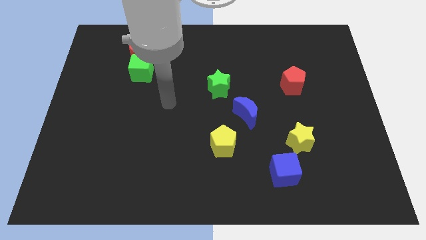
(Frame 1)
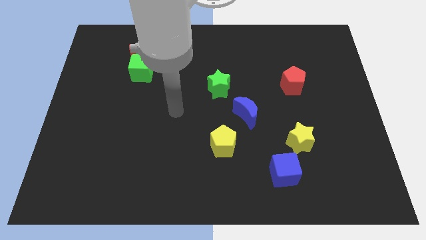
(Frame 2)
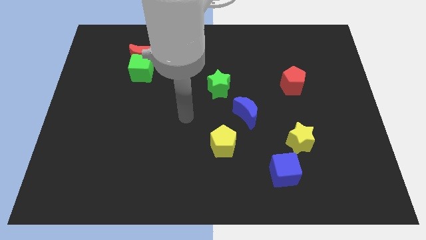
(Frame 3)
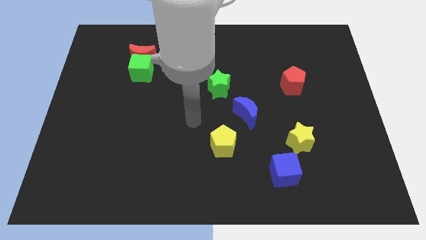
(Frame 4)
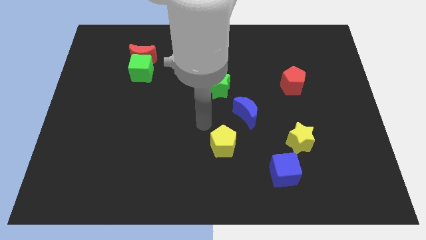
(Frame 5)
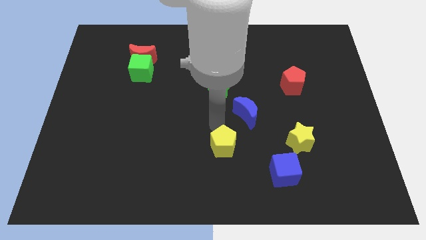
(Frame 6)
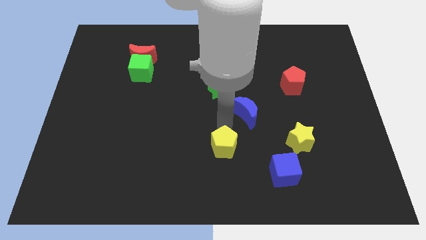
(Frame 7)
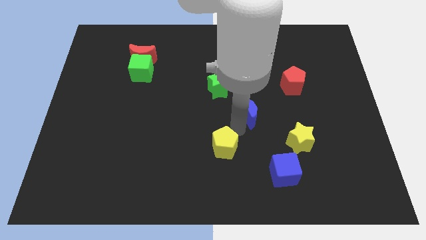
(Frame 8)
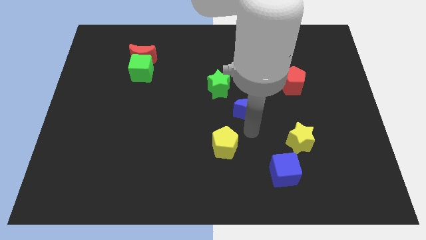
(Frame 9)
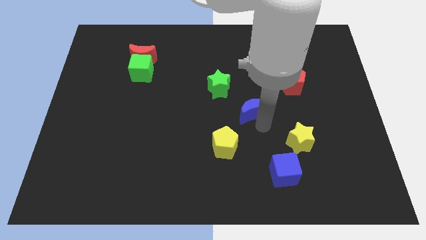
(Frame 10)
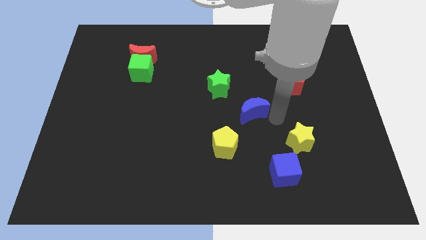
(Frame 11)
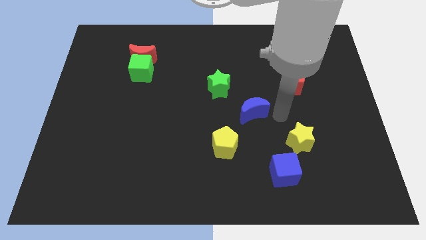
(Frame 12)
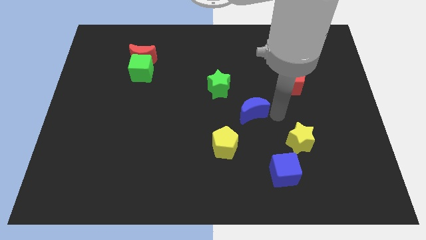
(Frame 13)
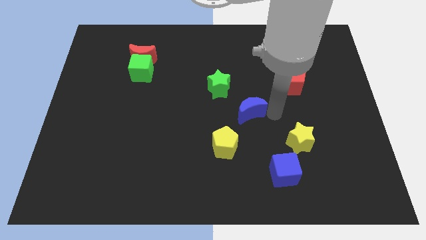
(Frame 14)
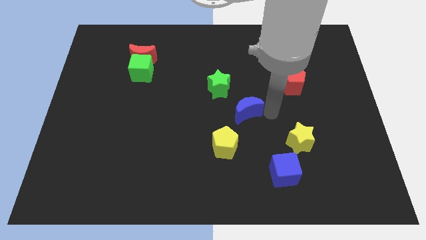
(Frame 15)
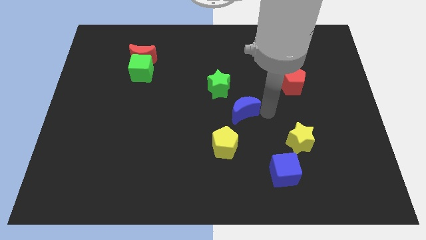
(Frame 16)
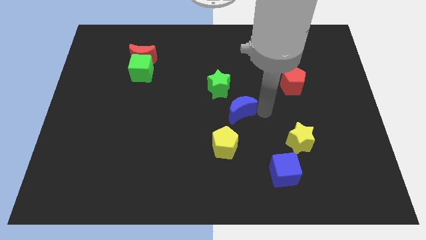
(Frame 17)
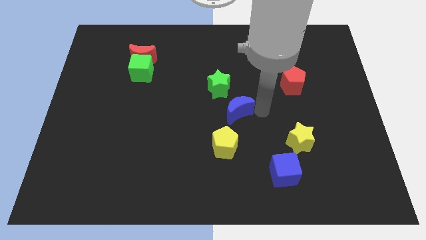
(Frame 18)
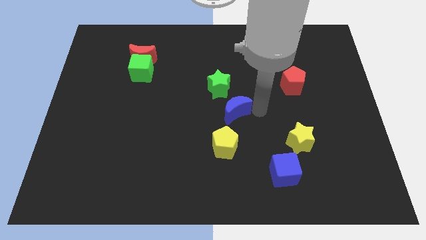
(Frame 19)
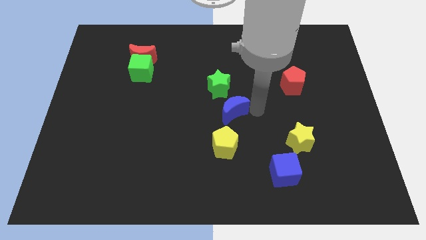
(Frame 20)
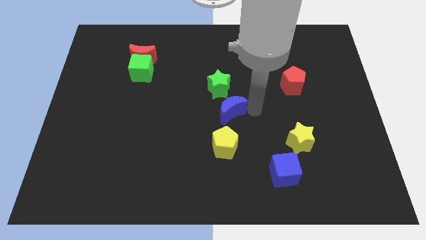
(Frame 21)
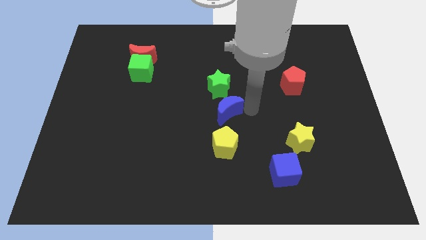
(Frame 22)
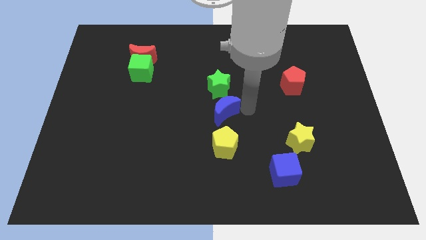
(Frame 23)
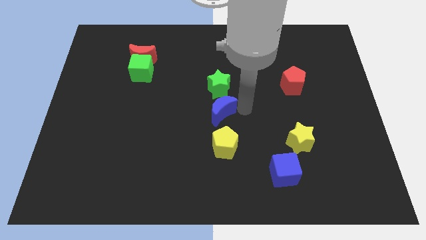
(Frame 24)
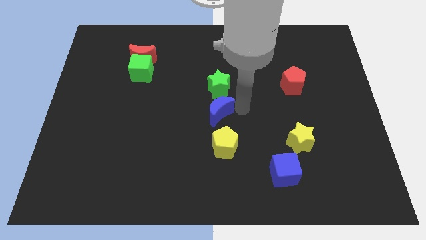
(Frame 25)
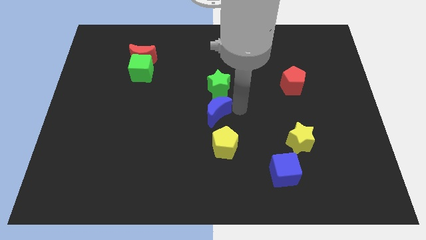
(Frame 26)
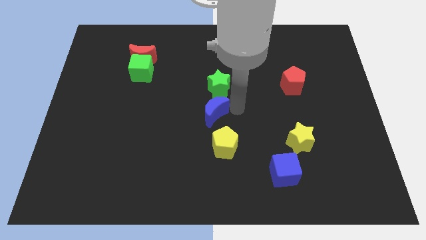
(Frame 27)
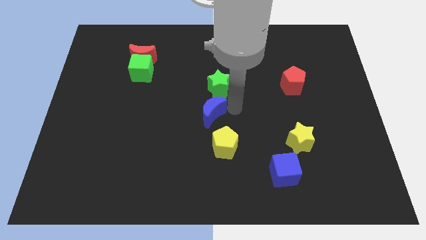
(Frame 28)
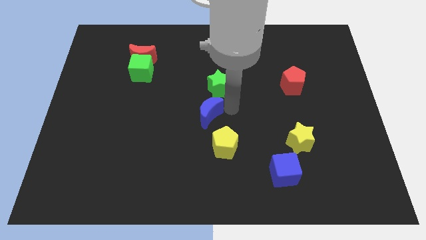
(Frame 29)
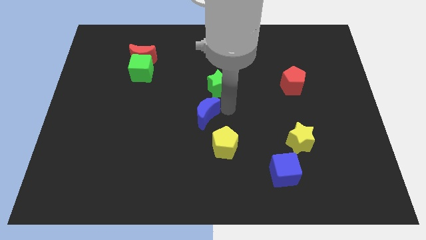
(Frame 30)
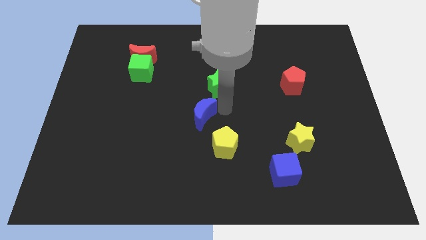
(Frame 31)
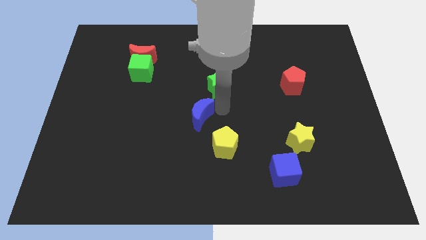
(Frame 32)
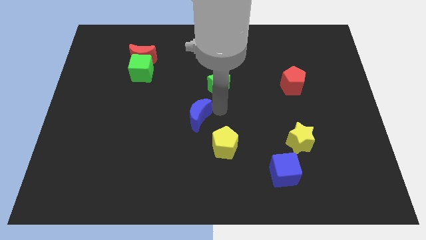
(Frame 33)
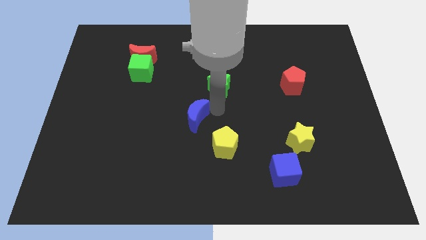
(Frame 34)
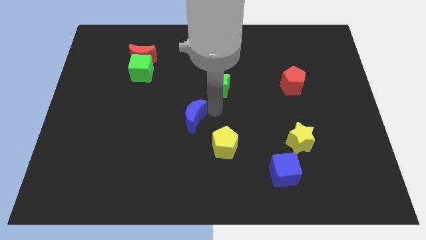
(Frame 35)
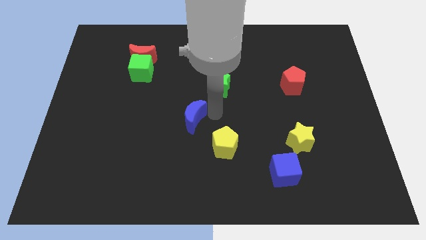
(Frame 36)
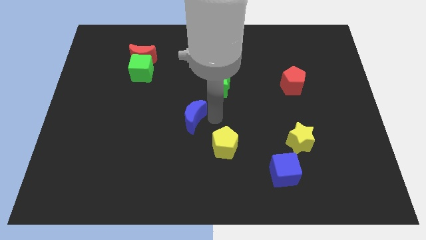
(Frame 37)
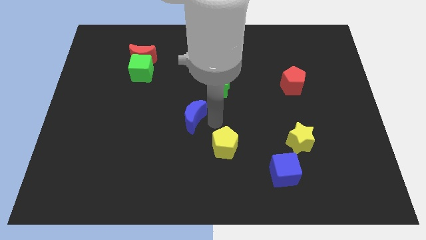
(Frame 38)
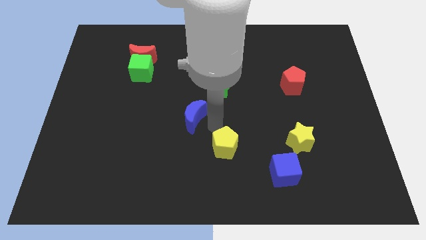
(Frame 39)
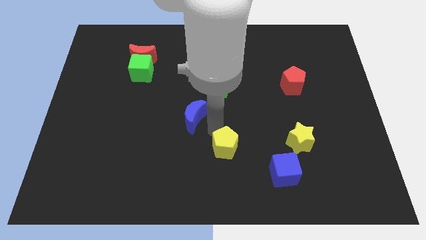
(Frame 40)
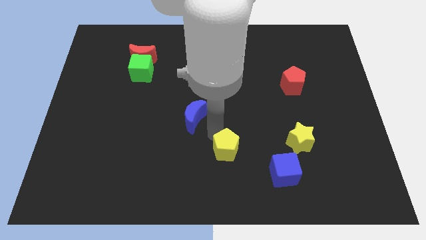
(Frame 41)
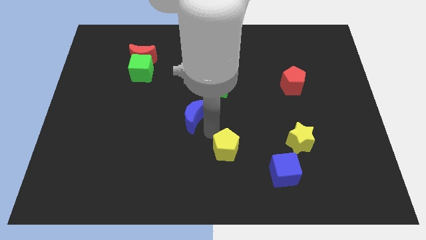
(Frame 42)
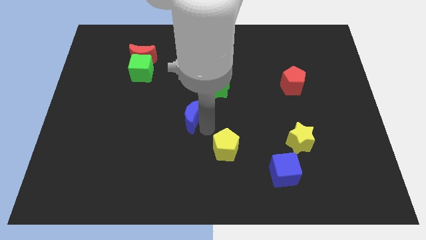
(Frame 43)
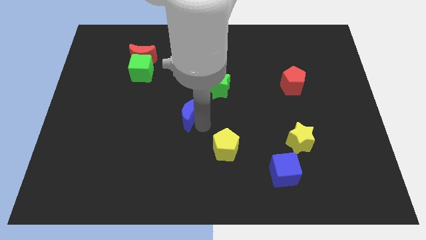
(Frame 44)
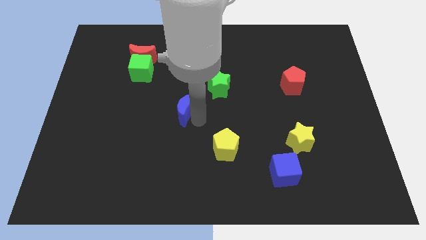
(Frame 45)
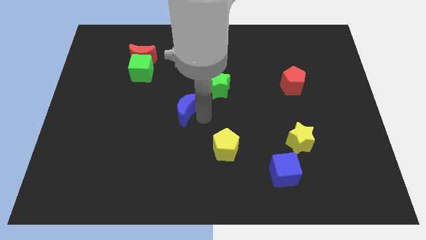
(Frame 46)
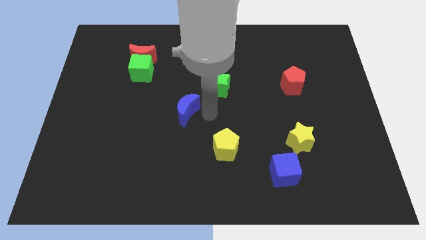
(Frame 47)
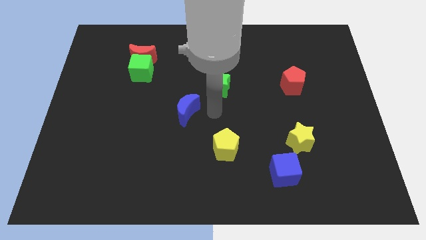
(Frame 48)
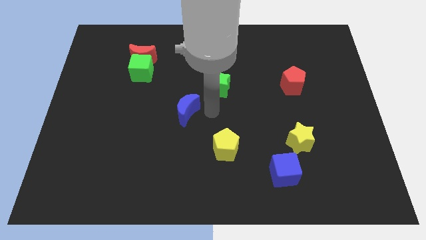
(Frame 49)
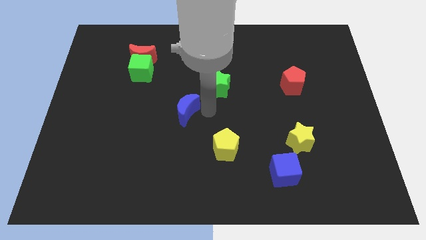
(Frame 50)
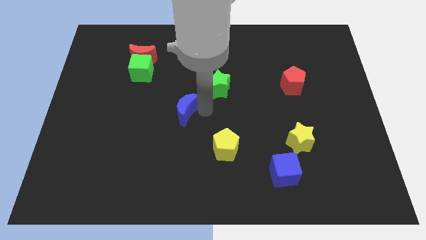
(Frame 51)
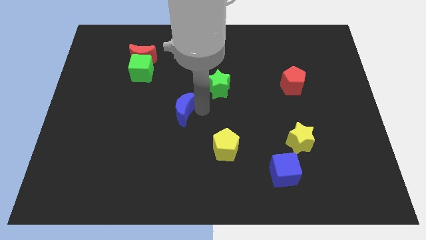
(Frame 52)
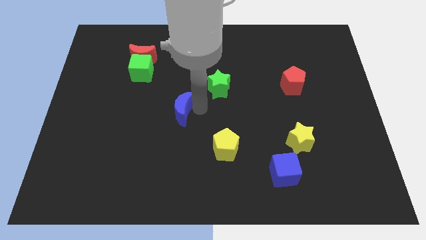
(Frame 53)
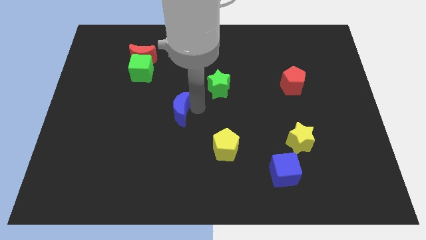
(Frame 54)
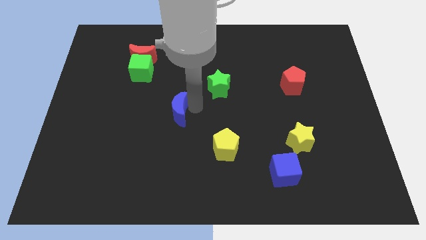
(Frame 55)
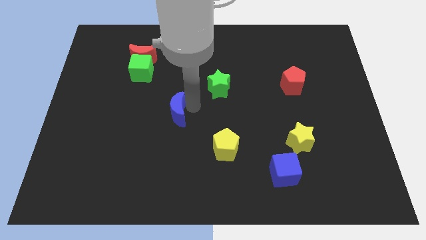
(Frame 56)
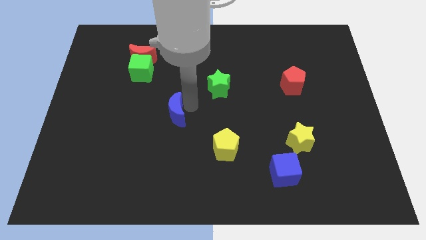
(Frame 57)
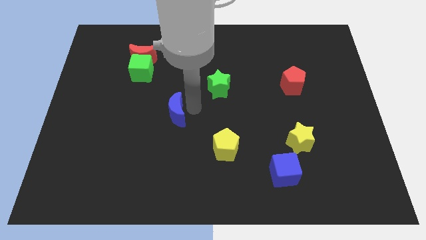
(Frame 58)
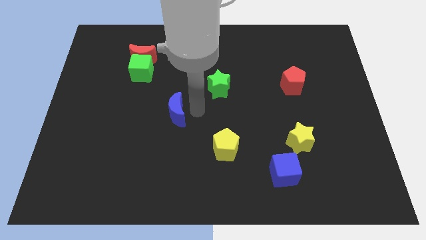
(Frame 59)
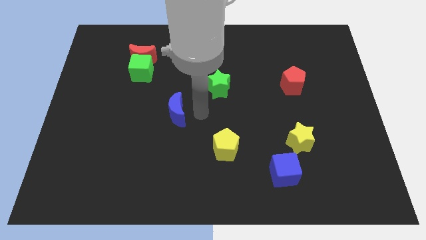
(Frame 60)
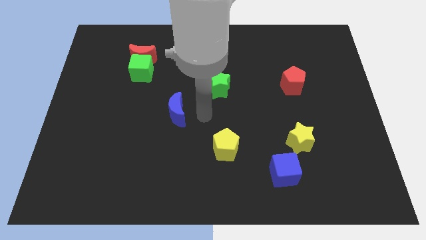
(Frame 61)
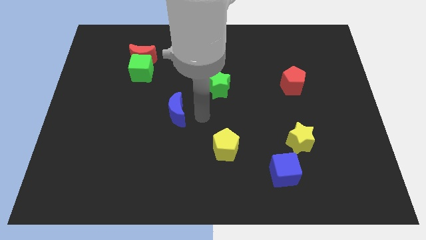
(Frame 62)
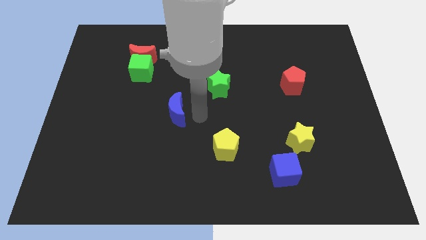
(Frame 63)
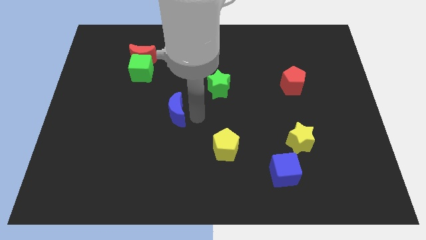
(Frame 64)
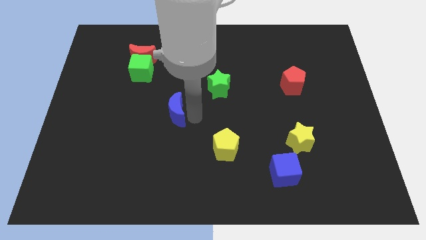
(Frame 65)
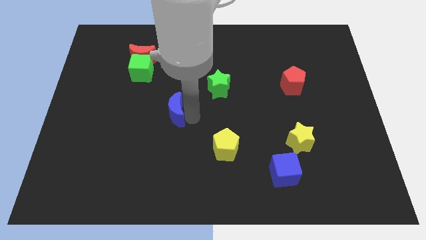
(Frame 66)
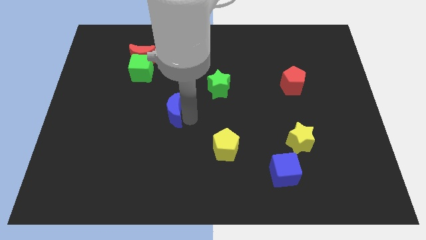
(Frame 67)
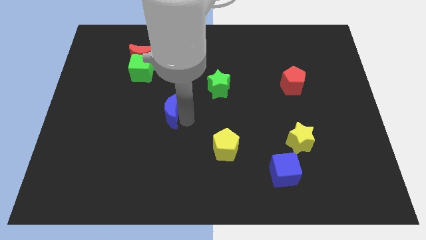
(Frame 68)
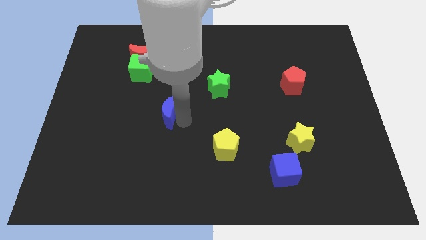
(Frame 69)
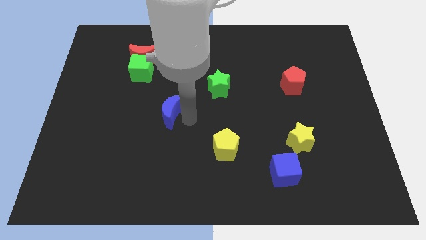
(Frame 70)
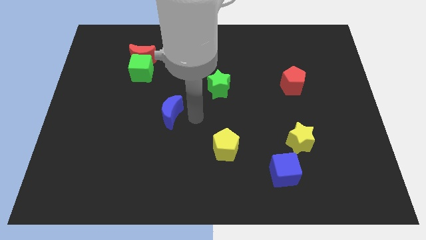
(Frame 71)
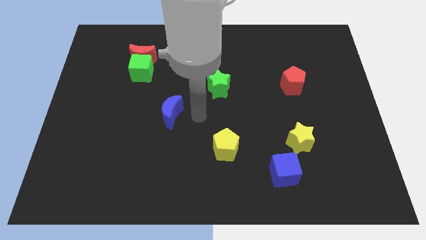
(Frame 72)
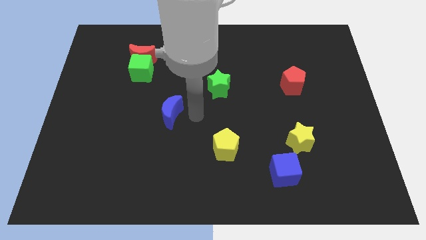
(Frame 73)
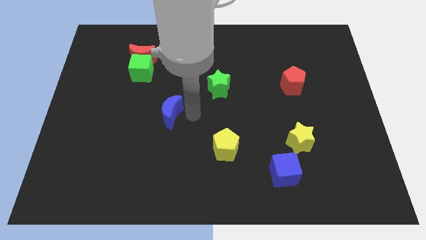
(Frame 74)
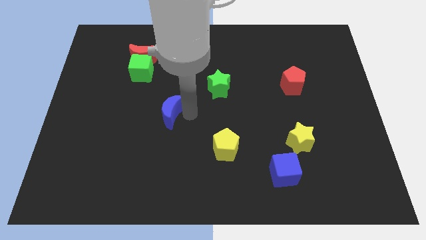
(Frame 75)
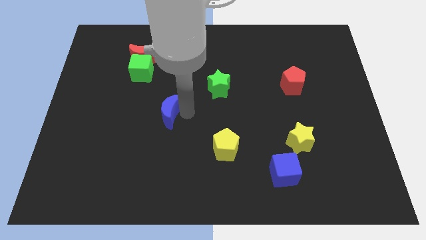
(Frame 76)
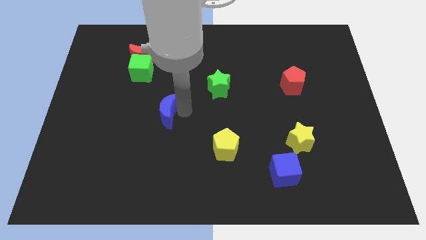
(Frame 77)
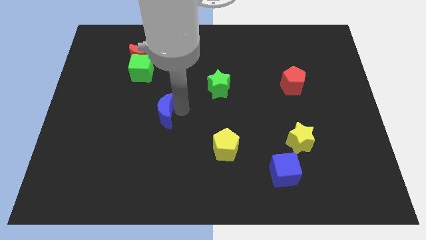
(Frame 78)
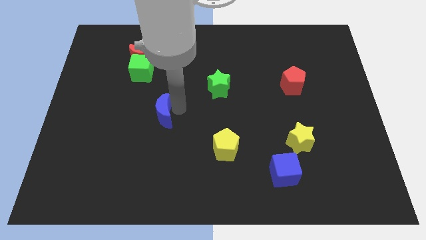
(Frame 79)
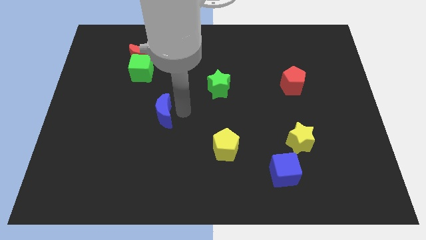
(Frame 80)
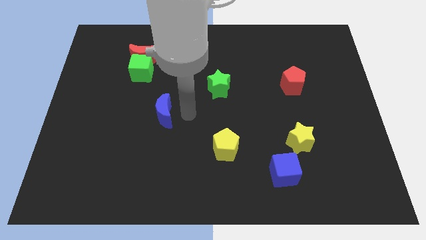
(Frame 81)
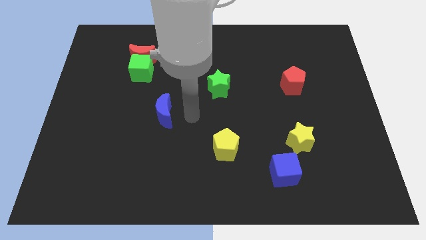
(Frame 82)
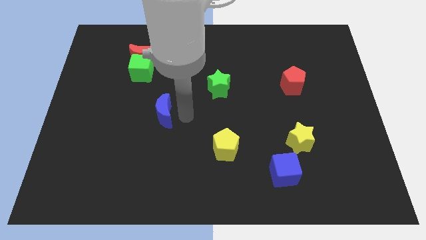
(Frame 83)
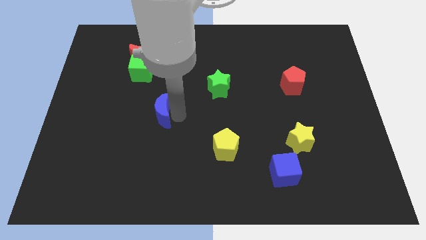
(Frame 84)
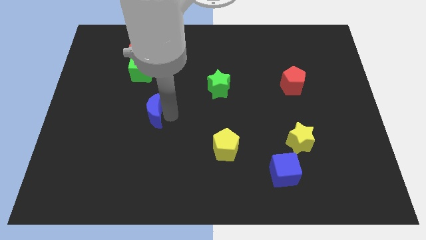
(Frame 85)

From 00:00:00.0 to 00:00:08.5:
slide the blue moon left
